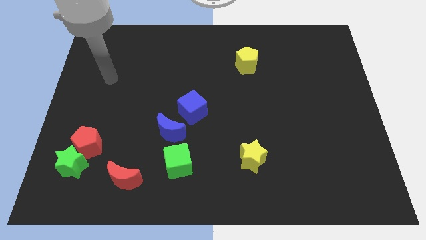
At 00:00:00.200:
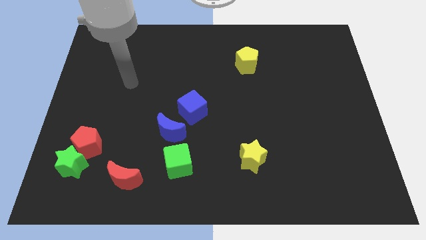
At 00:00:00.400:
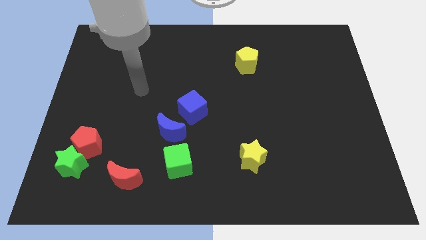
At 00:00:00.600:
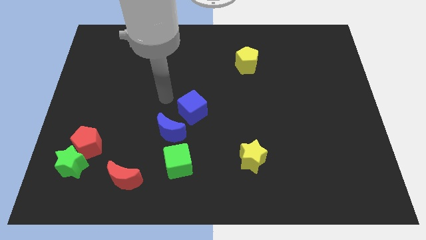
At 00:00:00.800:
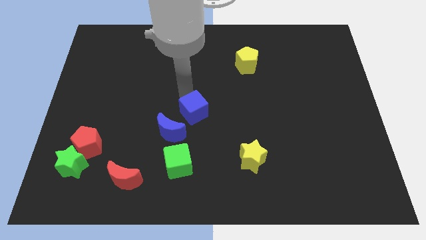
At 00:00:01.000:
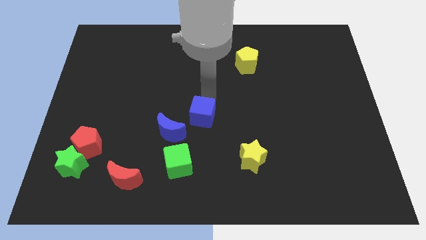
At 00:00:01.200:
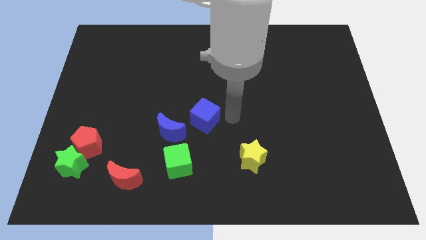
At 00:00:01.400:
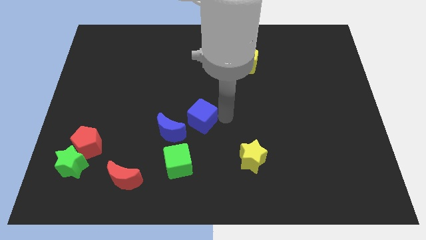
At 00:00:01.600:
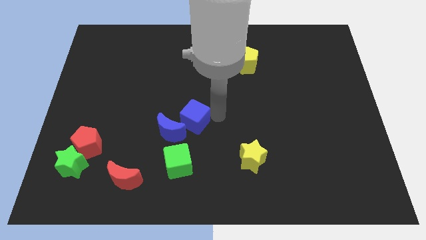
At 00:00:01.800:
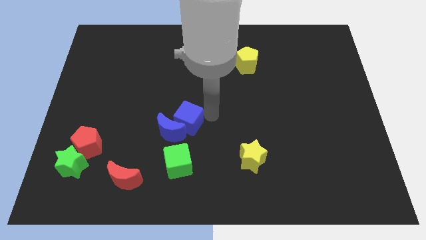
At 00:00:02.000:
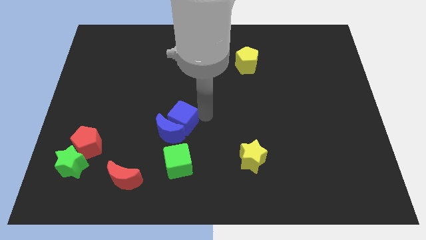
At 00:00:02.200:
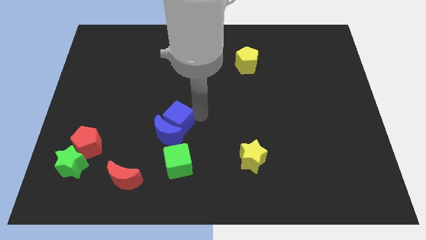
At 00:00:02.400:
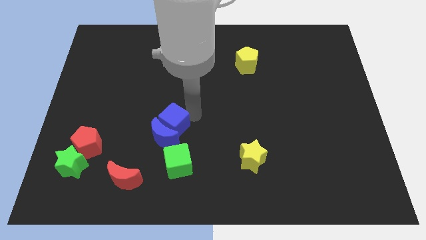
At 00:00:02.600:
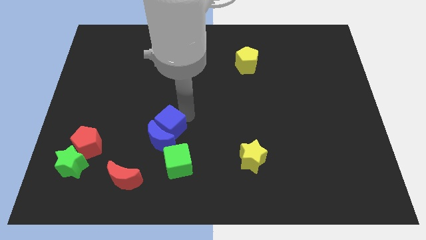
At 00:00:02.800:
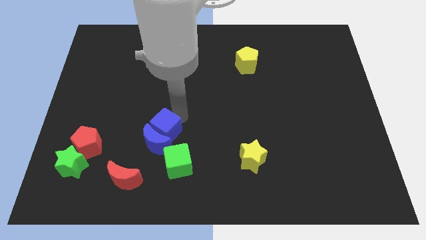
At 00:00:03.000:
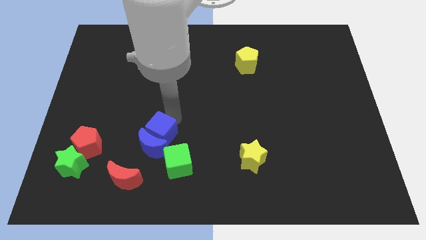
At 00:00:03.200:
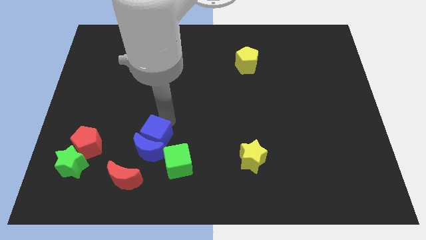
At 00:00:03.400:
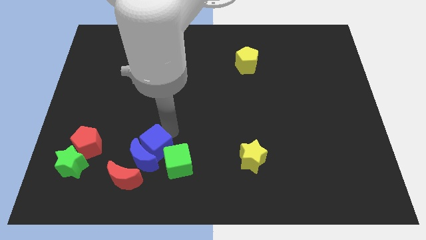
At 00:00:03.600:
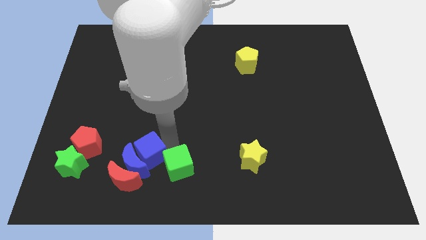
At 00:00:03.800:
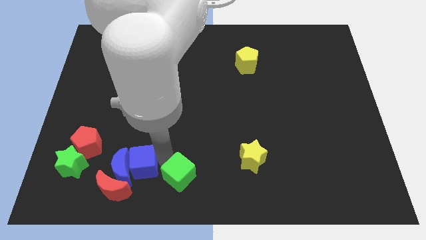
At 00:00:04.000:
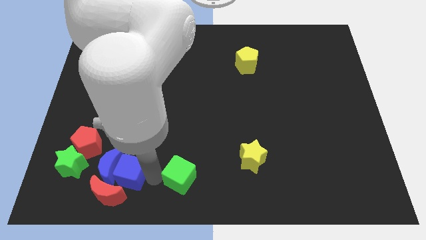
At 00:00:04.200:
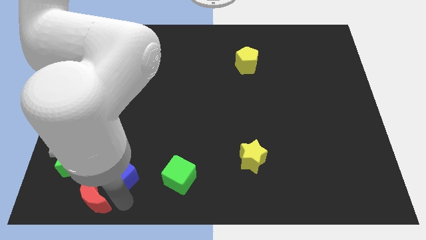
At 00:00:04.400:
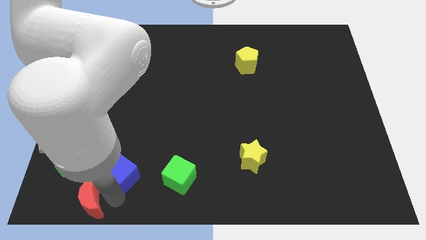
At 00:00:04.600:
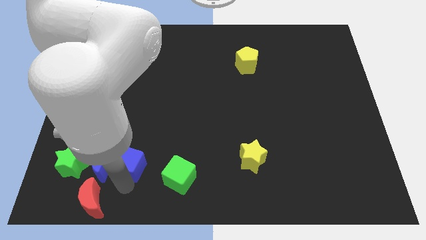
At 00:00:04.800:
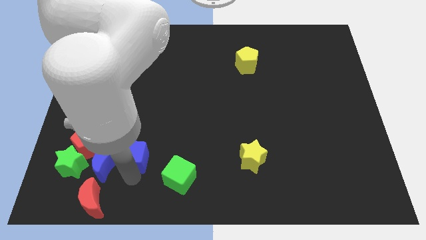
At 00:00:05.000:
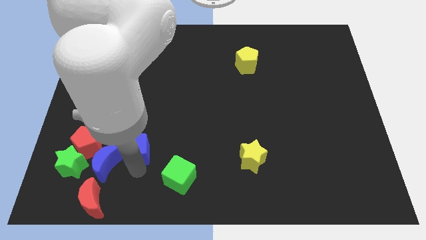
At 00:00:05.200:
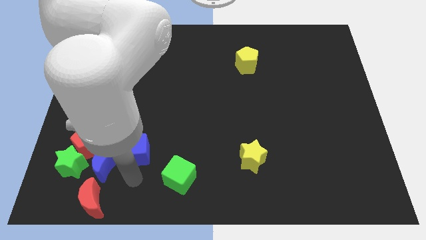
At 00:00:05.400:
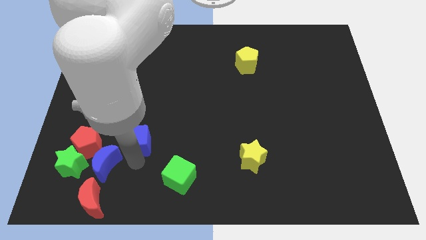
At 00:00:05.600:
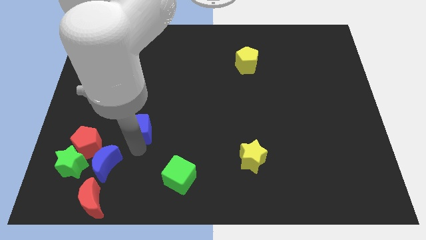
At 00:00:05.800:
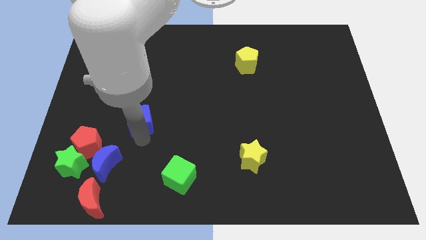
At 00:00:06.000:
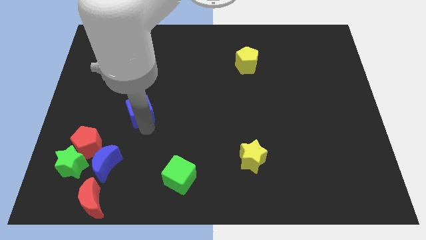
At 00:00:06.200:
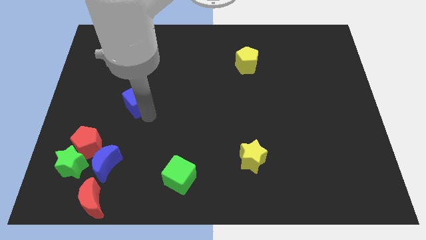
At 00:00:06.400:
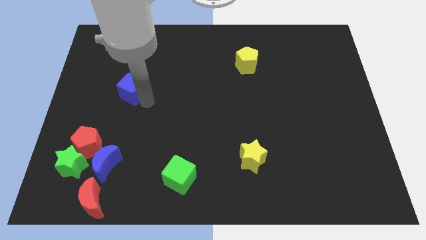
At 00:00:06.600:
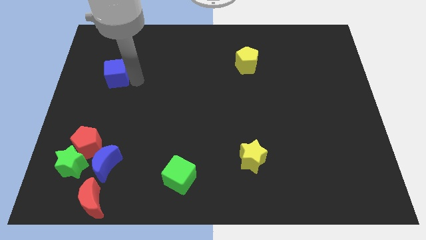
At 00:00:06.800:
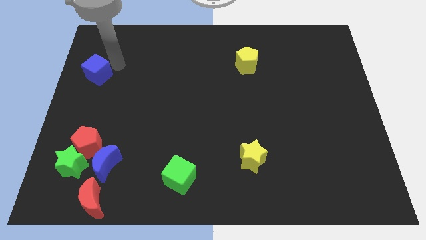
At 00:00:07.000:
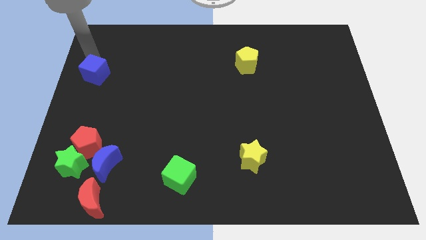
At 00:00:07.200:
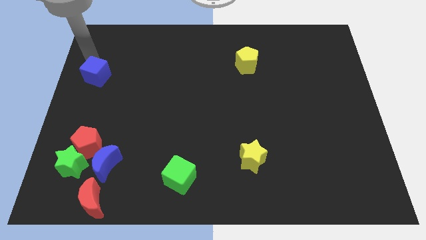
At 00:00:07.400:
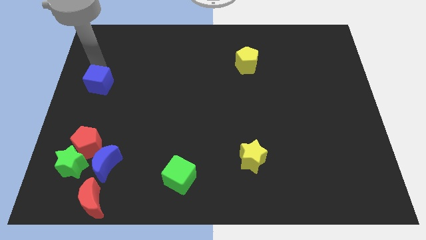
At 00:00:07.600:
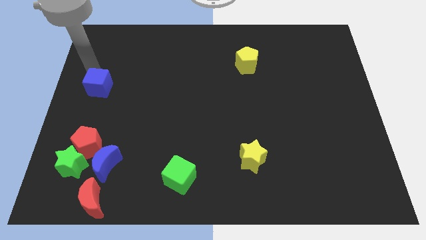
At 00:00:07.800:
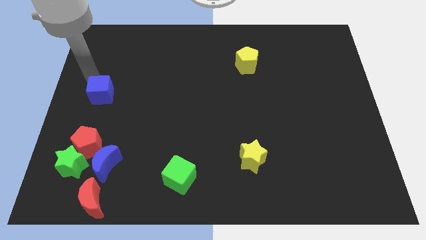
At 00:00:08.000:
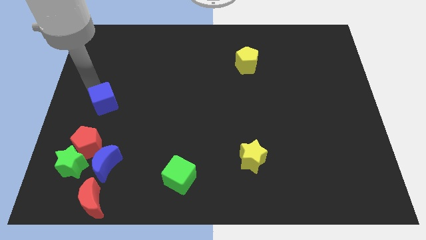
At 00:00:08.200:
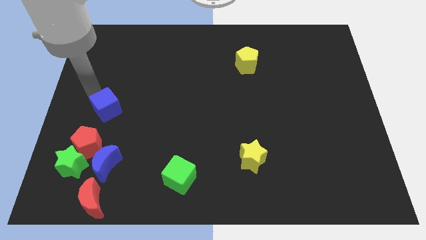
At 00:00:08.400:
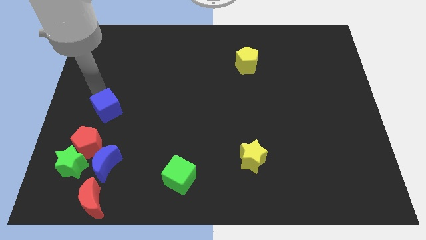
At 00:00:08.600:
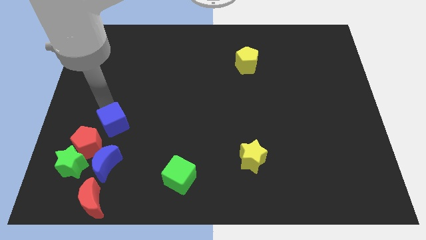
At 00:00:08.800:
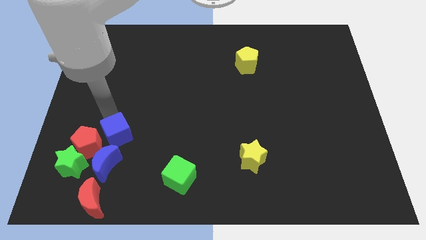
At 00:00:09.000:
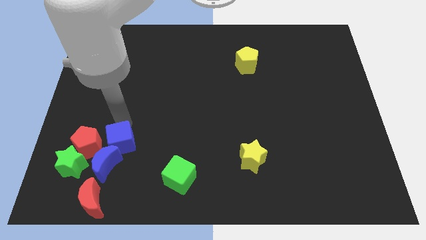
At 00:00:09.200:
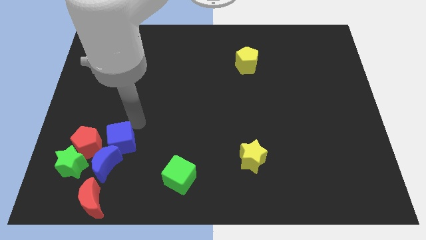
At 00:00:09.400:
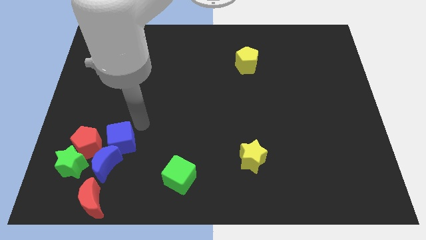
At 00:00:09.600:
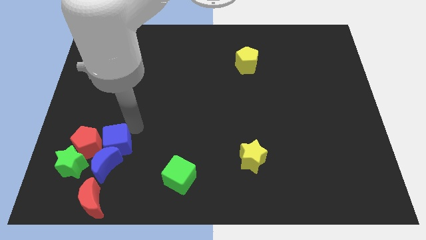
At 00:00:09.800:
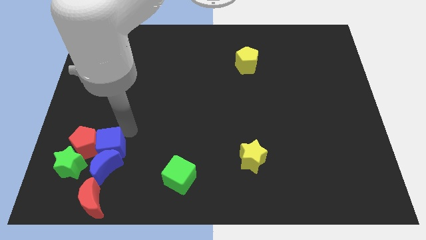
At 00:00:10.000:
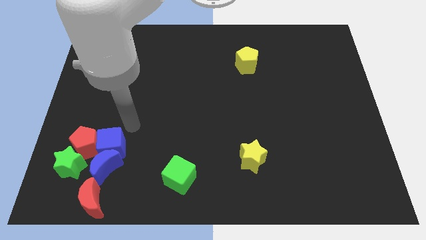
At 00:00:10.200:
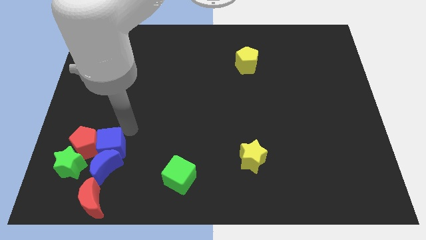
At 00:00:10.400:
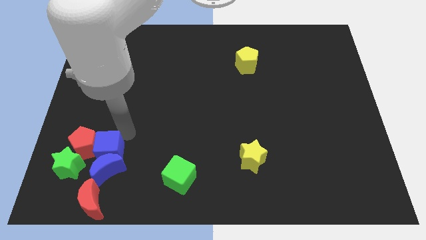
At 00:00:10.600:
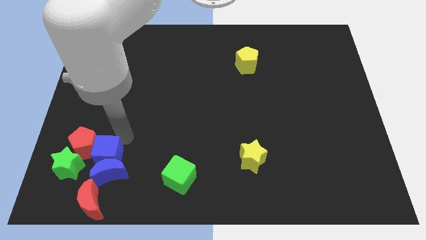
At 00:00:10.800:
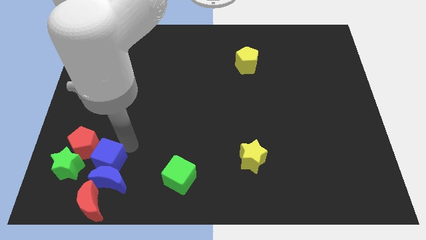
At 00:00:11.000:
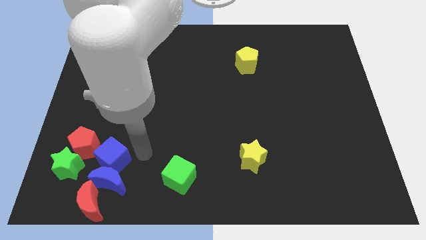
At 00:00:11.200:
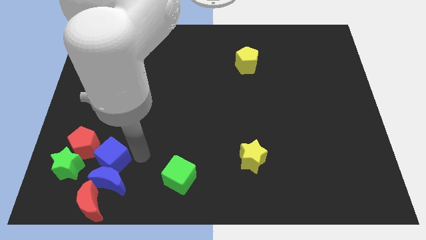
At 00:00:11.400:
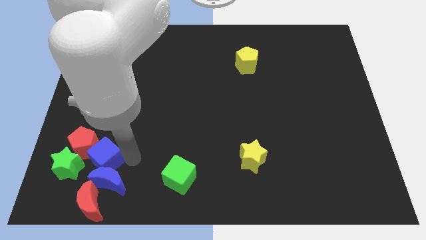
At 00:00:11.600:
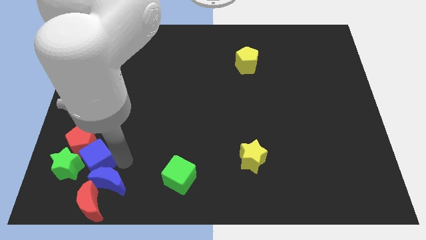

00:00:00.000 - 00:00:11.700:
slide the blue cube next to the green star

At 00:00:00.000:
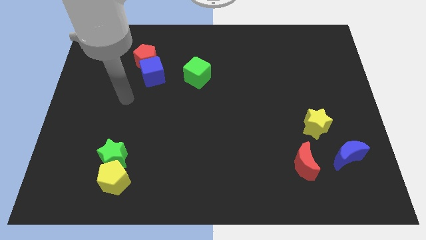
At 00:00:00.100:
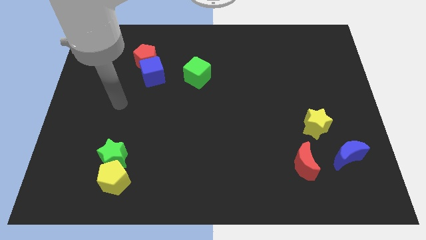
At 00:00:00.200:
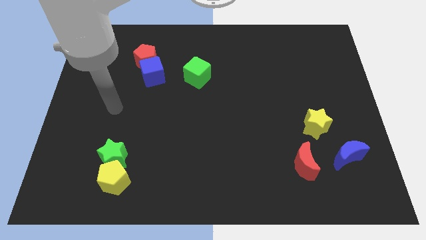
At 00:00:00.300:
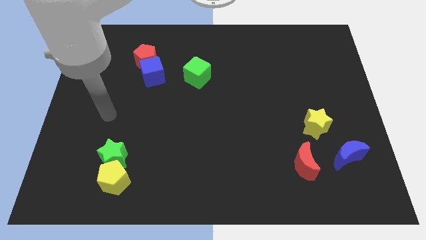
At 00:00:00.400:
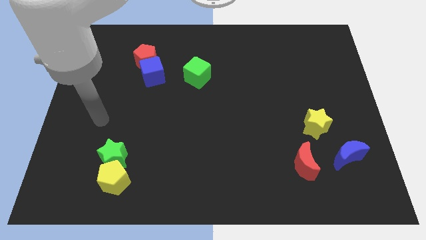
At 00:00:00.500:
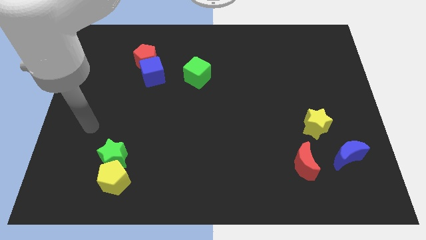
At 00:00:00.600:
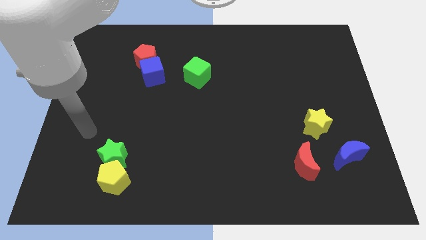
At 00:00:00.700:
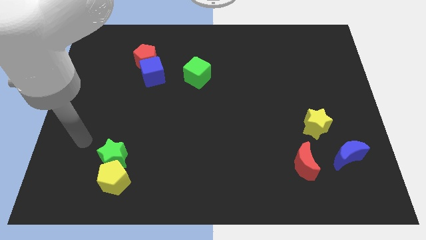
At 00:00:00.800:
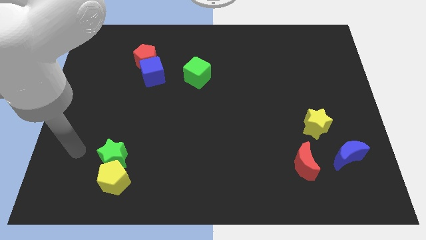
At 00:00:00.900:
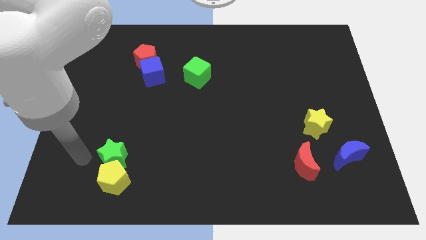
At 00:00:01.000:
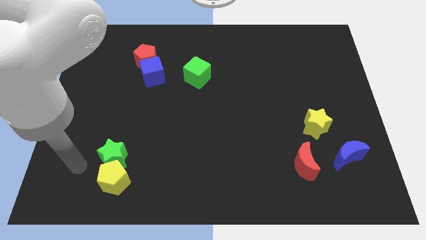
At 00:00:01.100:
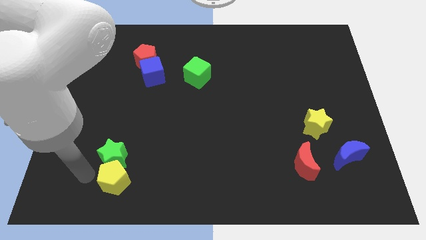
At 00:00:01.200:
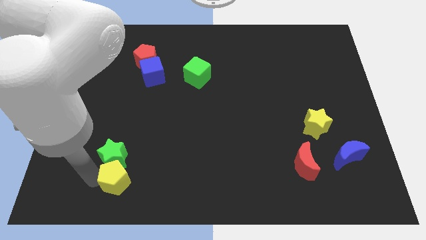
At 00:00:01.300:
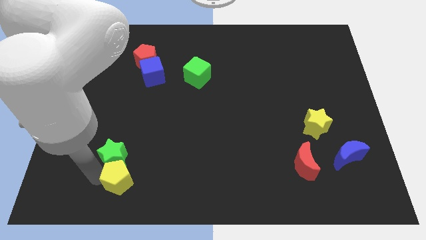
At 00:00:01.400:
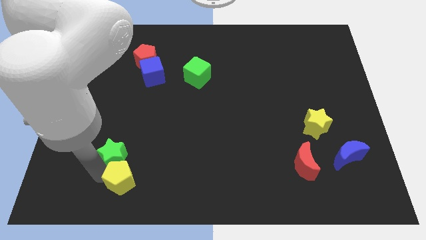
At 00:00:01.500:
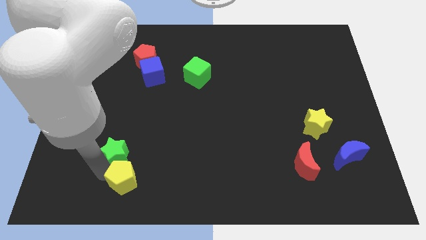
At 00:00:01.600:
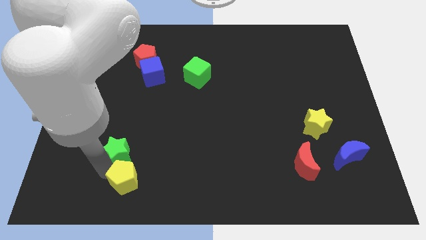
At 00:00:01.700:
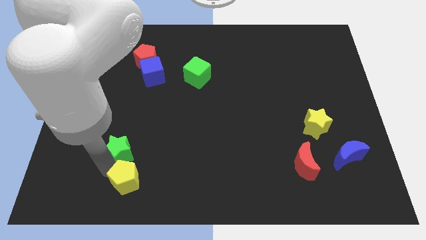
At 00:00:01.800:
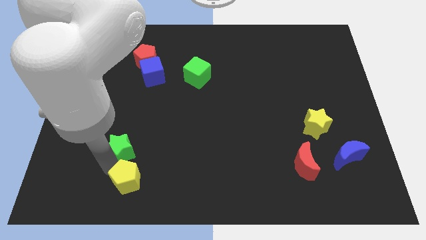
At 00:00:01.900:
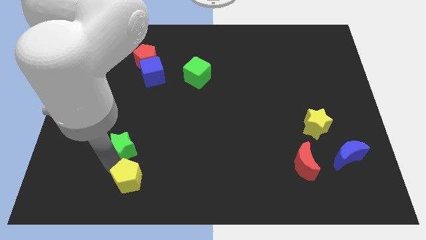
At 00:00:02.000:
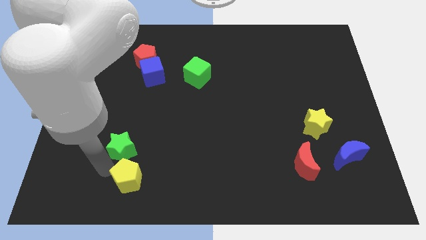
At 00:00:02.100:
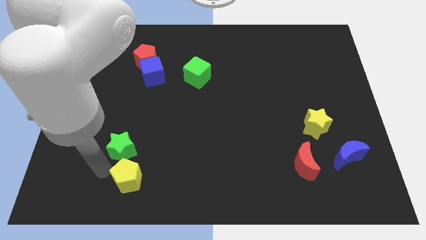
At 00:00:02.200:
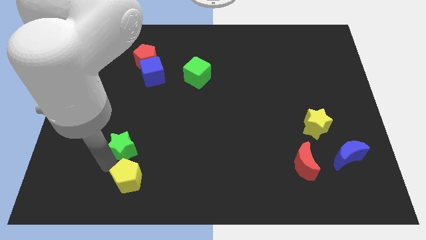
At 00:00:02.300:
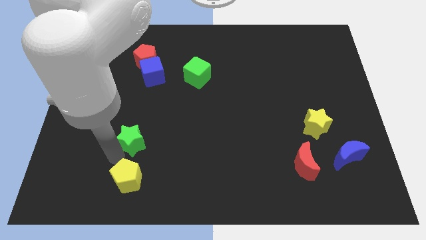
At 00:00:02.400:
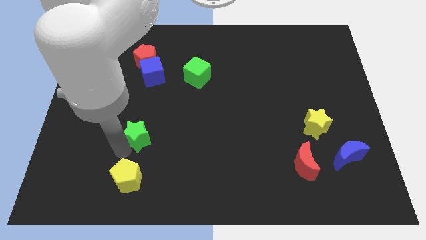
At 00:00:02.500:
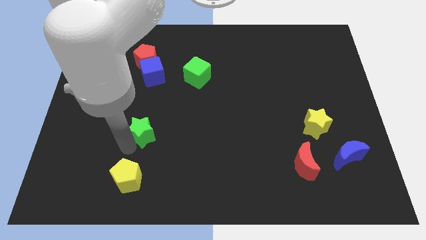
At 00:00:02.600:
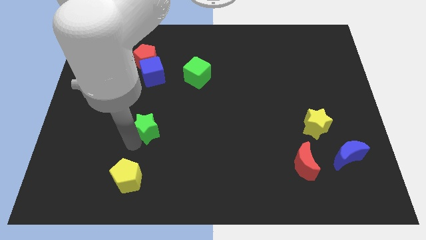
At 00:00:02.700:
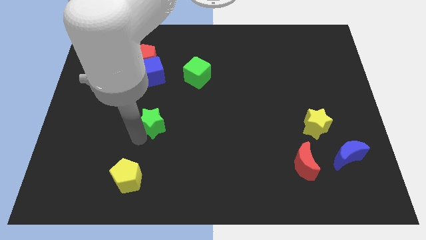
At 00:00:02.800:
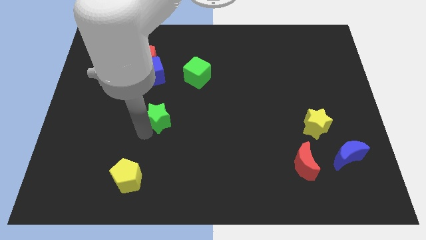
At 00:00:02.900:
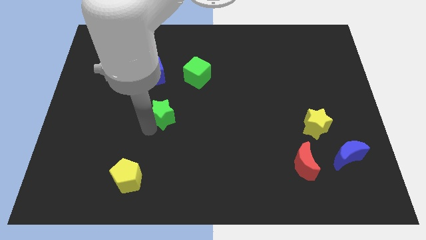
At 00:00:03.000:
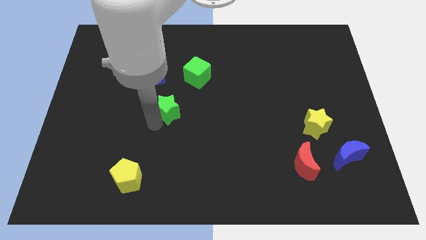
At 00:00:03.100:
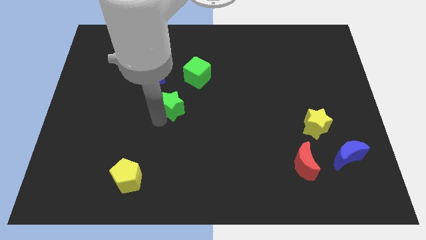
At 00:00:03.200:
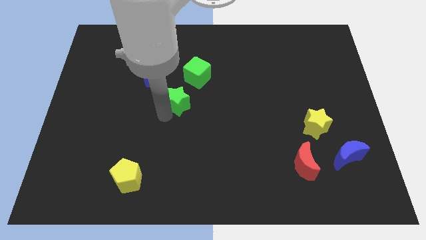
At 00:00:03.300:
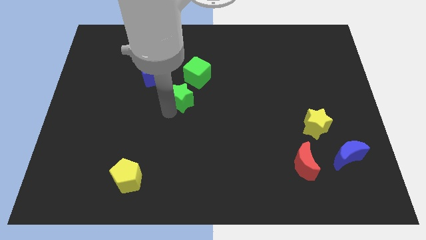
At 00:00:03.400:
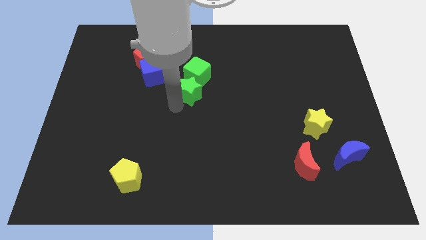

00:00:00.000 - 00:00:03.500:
put the green star to the green cube
